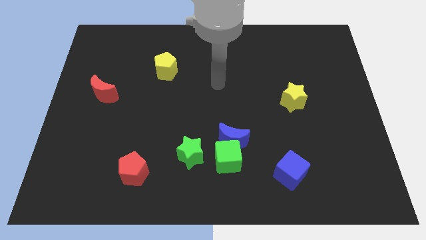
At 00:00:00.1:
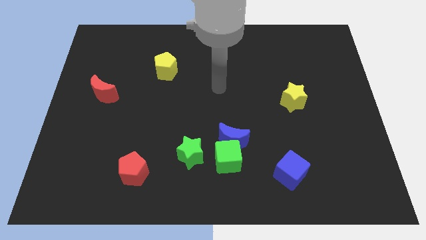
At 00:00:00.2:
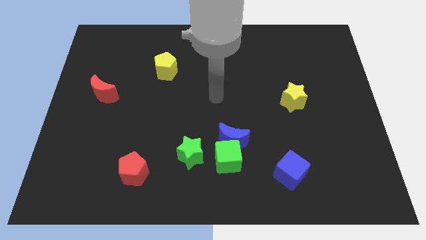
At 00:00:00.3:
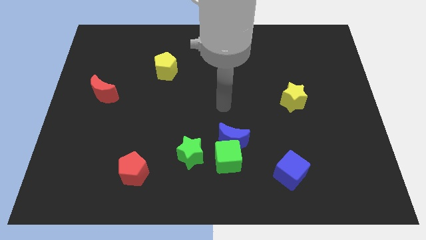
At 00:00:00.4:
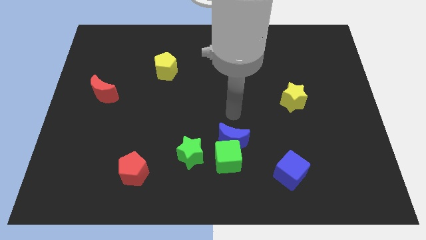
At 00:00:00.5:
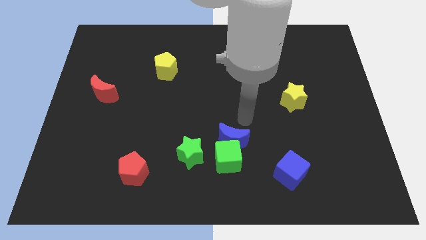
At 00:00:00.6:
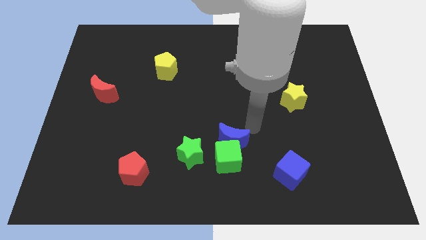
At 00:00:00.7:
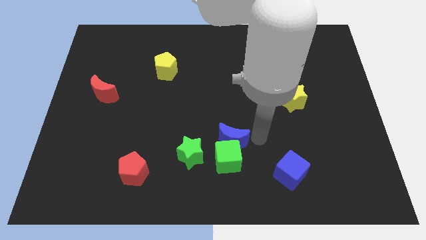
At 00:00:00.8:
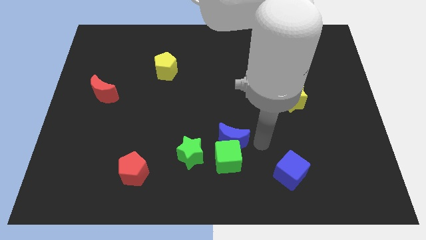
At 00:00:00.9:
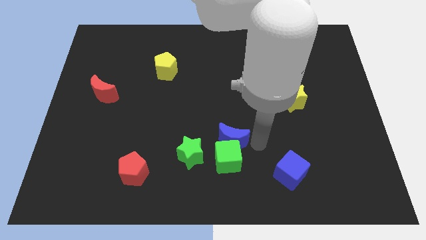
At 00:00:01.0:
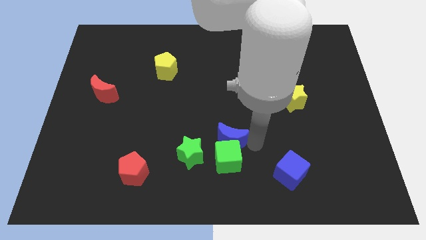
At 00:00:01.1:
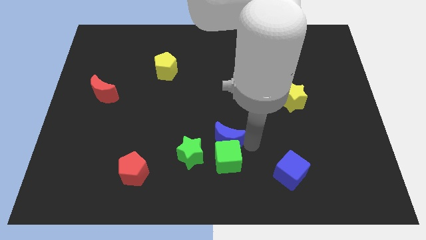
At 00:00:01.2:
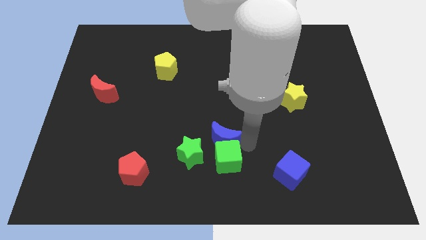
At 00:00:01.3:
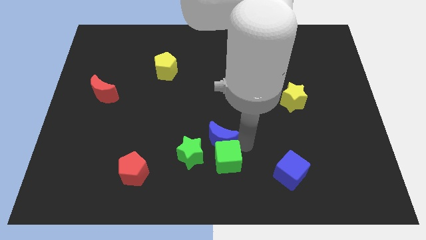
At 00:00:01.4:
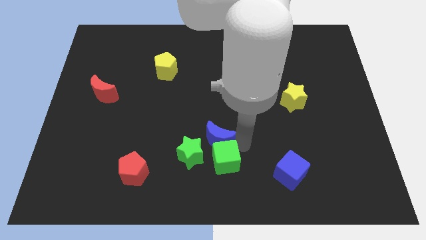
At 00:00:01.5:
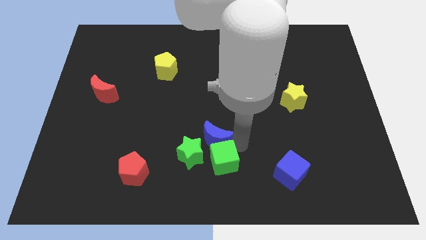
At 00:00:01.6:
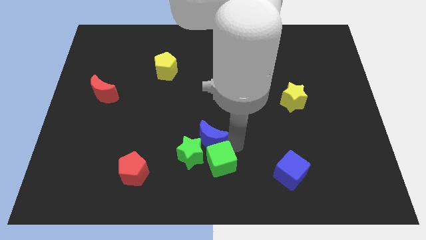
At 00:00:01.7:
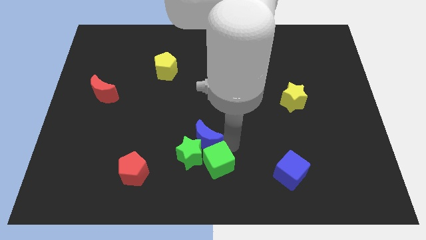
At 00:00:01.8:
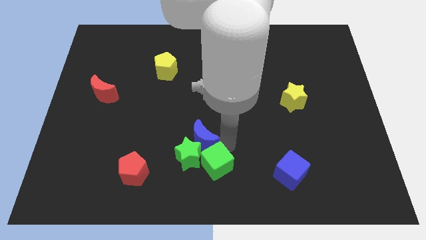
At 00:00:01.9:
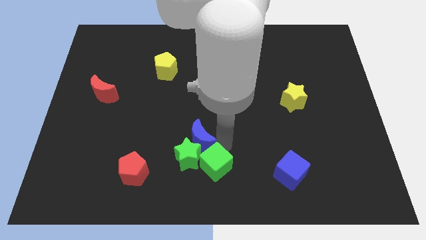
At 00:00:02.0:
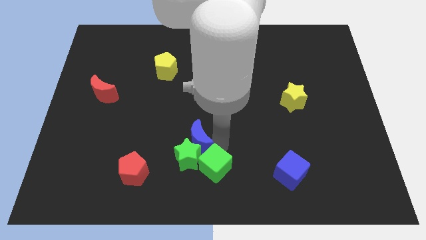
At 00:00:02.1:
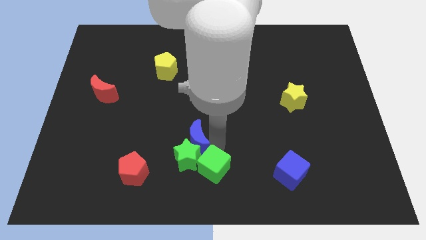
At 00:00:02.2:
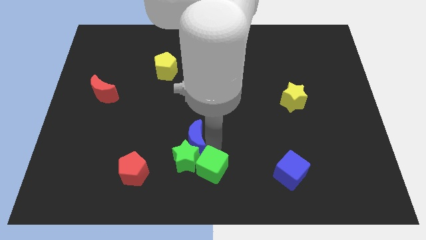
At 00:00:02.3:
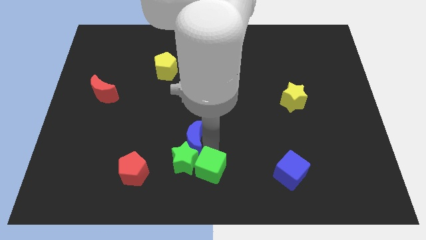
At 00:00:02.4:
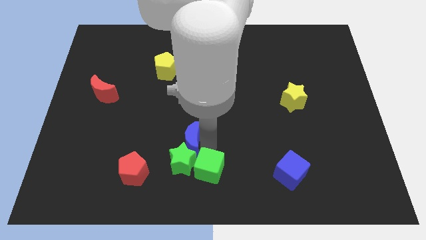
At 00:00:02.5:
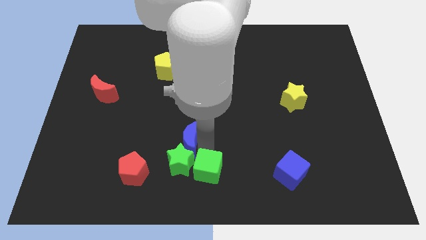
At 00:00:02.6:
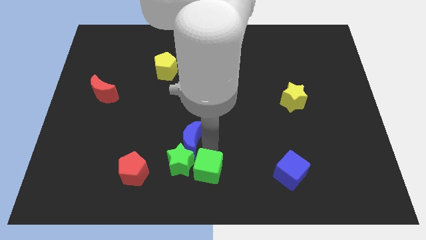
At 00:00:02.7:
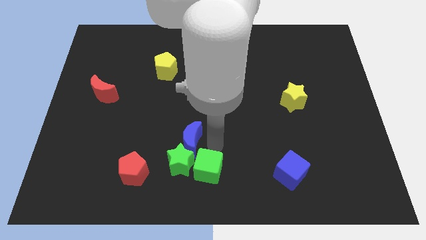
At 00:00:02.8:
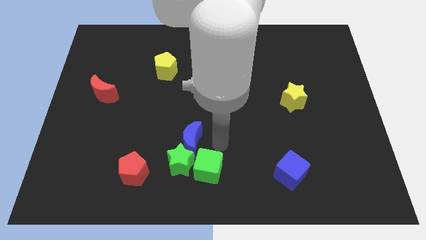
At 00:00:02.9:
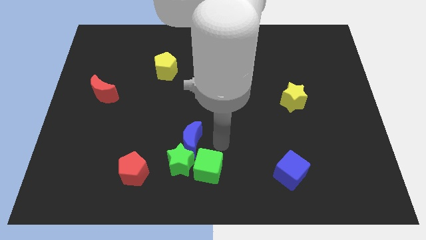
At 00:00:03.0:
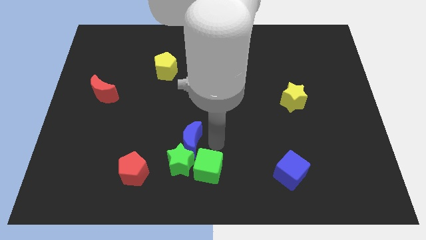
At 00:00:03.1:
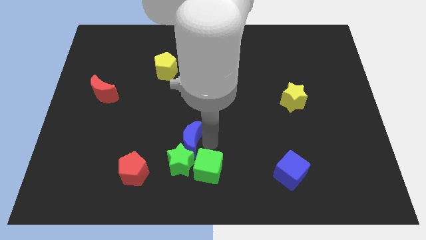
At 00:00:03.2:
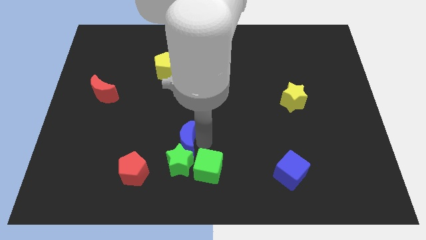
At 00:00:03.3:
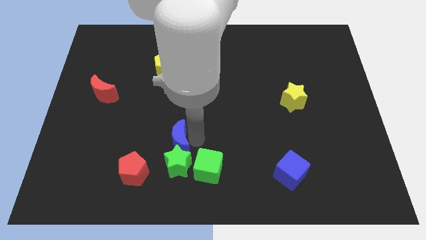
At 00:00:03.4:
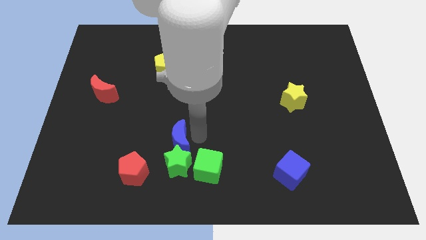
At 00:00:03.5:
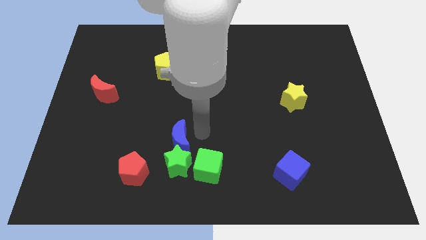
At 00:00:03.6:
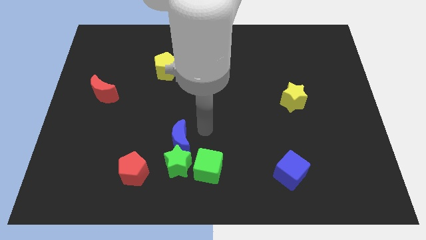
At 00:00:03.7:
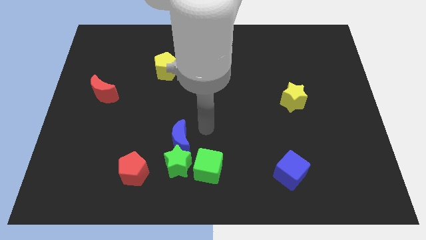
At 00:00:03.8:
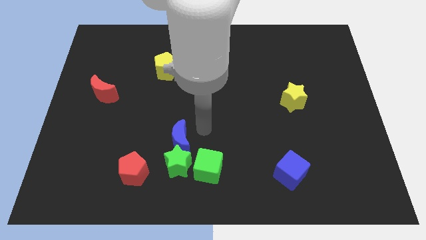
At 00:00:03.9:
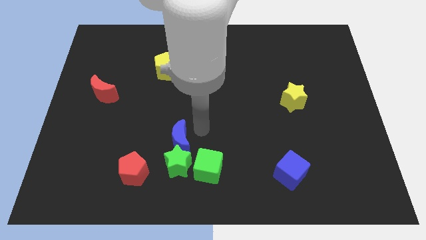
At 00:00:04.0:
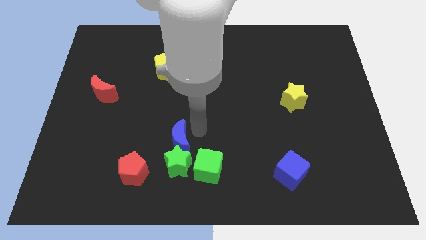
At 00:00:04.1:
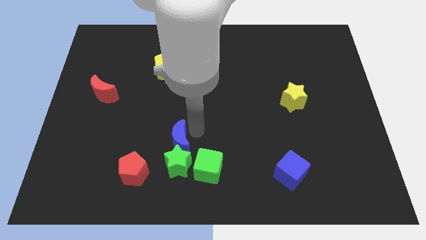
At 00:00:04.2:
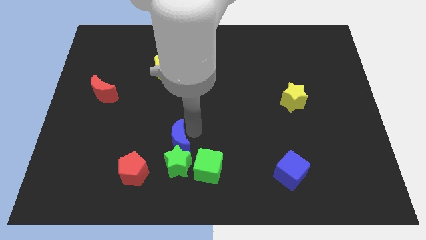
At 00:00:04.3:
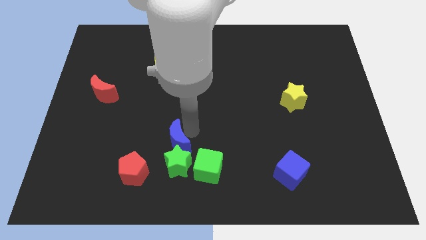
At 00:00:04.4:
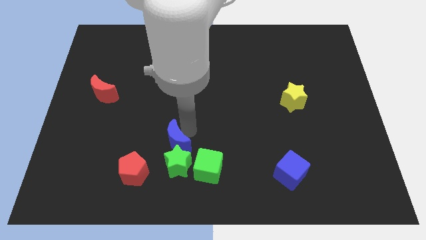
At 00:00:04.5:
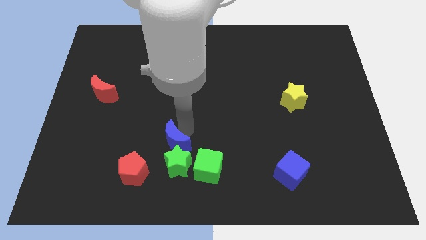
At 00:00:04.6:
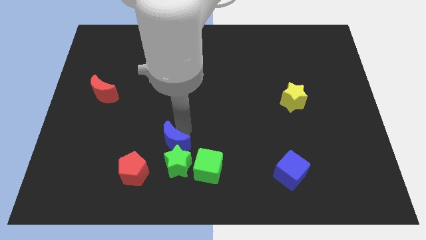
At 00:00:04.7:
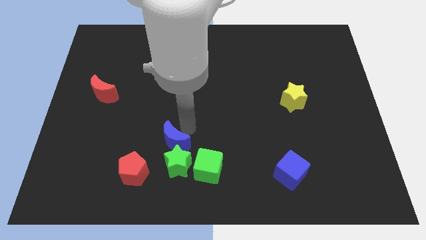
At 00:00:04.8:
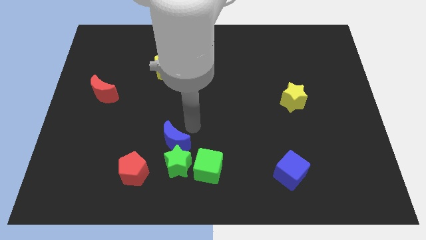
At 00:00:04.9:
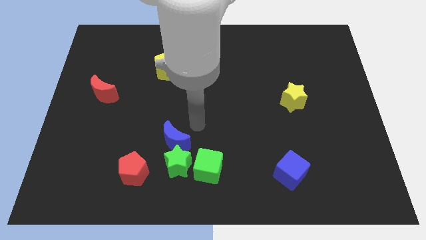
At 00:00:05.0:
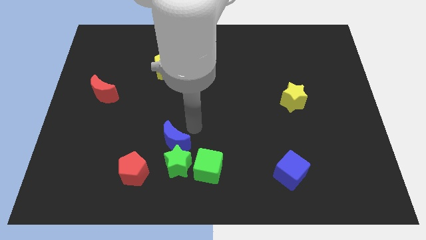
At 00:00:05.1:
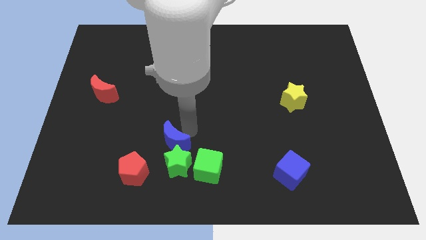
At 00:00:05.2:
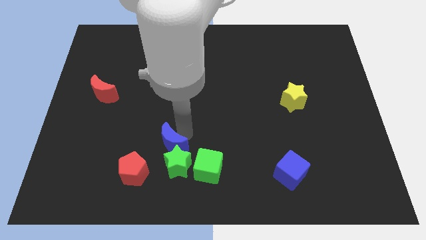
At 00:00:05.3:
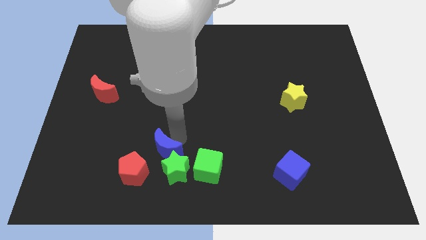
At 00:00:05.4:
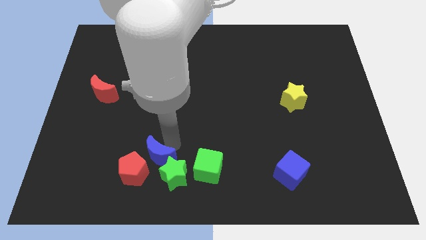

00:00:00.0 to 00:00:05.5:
push the blue moon next to the red pentagon

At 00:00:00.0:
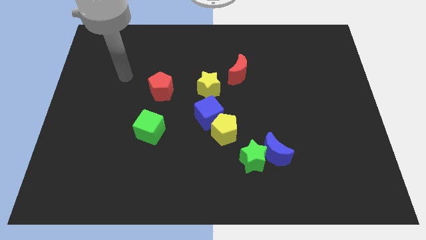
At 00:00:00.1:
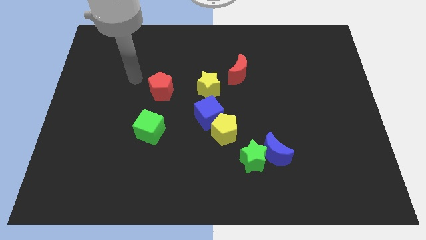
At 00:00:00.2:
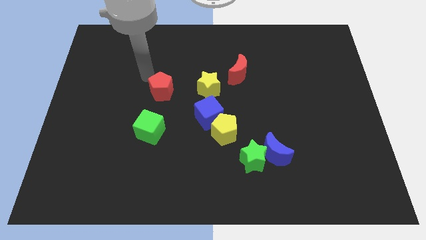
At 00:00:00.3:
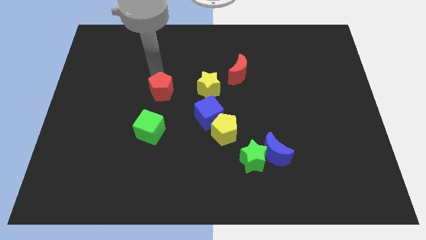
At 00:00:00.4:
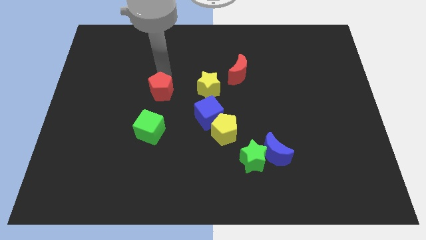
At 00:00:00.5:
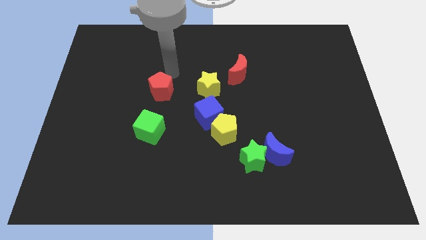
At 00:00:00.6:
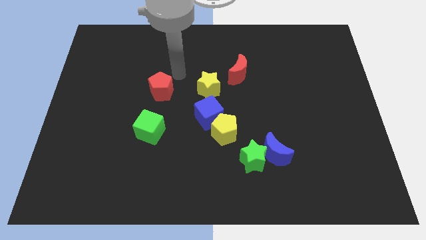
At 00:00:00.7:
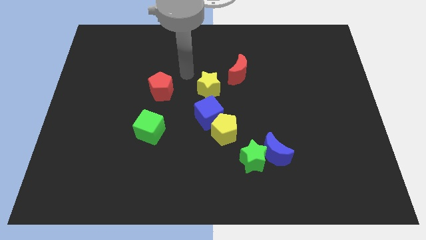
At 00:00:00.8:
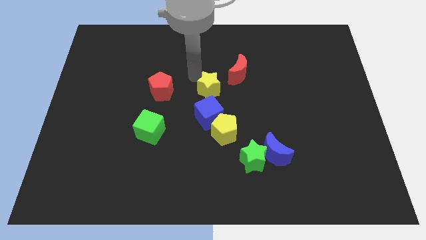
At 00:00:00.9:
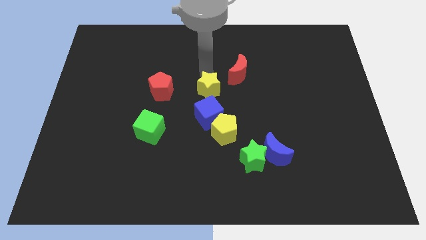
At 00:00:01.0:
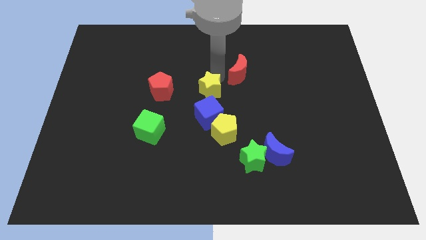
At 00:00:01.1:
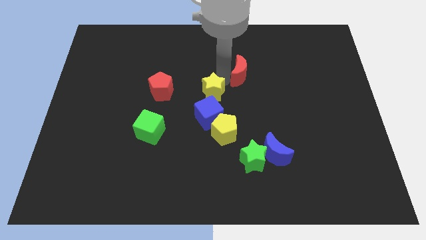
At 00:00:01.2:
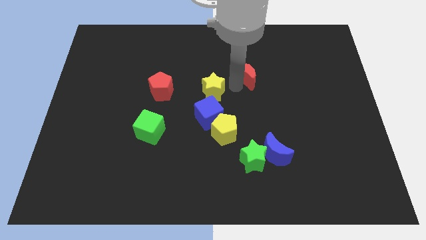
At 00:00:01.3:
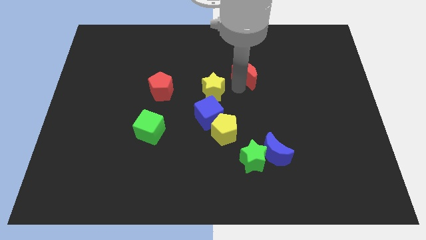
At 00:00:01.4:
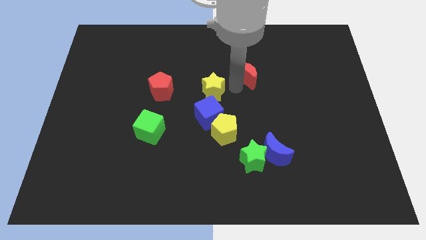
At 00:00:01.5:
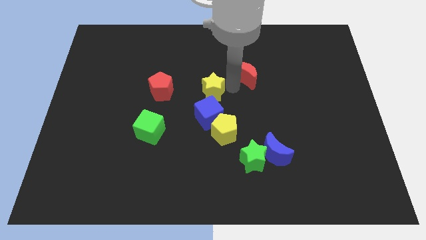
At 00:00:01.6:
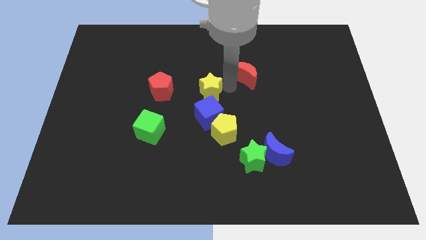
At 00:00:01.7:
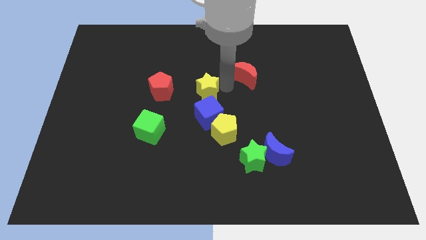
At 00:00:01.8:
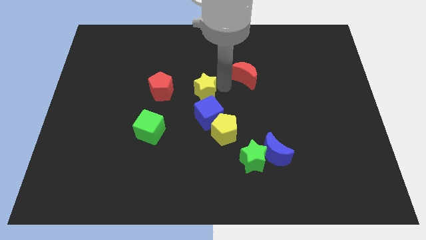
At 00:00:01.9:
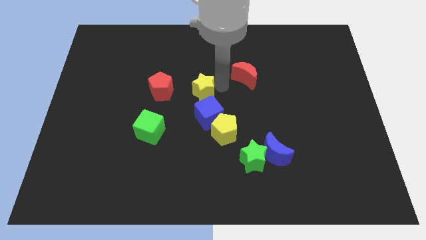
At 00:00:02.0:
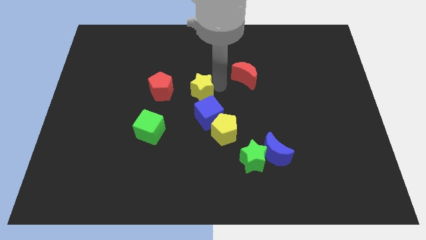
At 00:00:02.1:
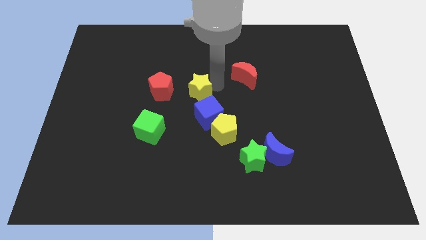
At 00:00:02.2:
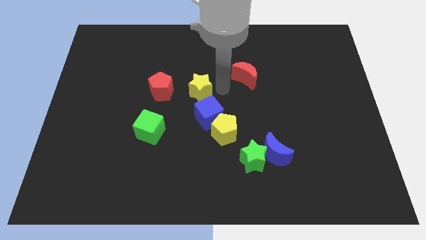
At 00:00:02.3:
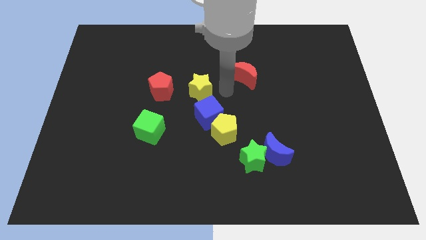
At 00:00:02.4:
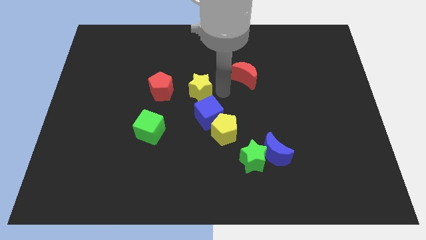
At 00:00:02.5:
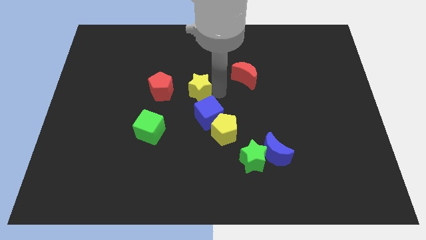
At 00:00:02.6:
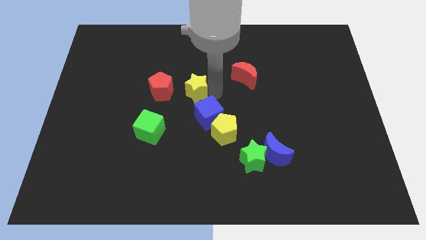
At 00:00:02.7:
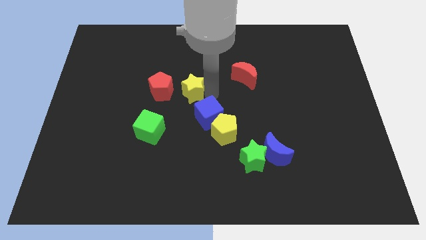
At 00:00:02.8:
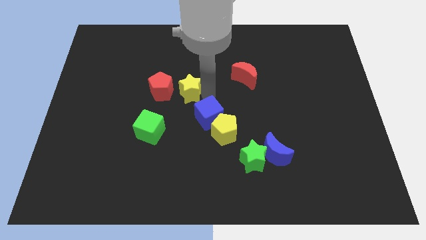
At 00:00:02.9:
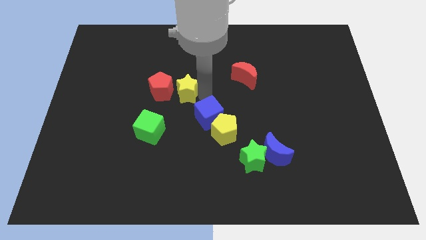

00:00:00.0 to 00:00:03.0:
move the yellow star towards the red pentagon
